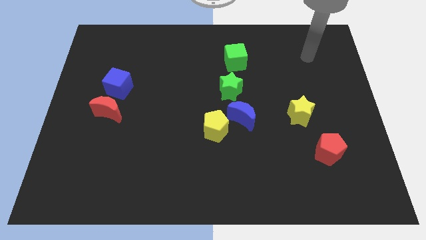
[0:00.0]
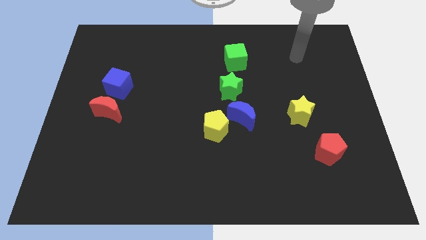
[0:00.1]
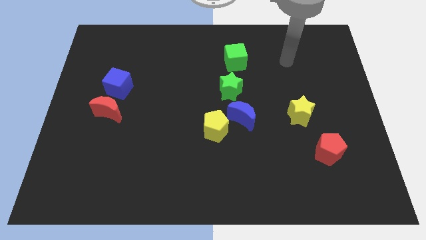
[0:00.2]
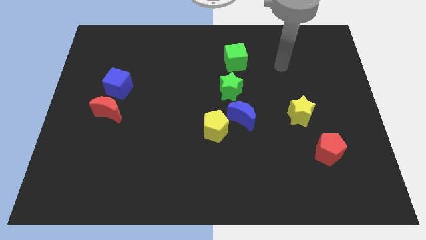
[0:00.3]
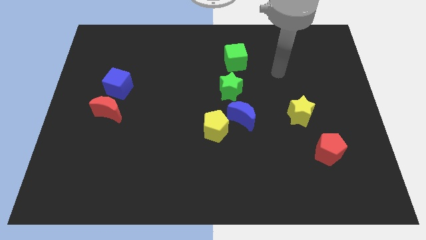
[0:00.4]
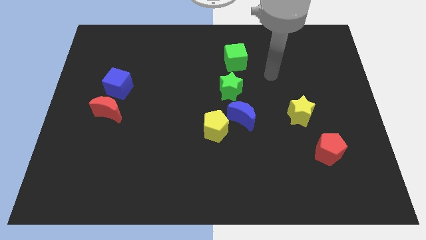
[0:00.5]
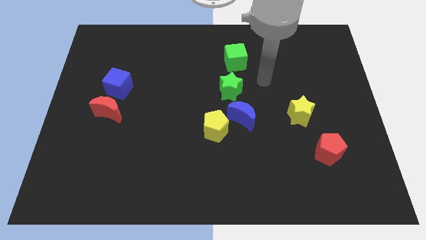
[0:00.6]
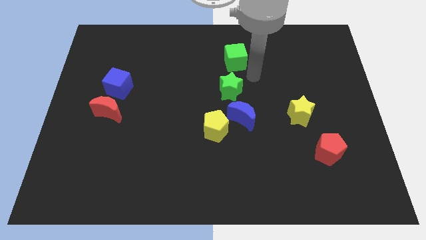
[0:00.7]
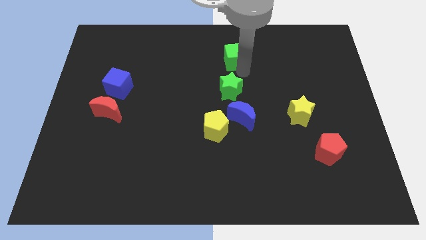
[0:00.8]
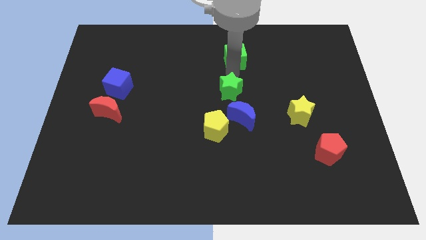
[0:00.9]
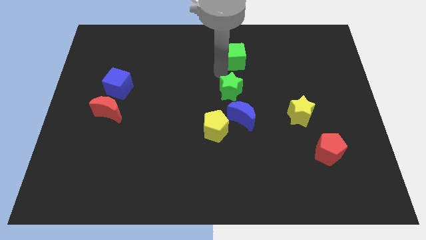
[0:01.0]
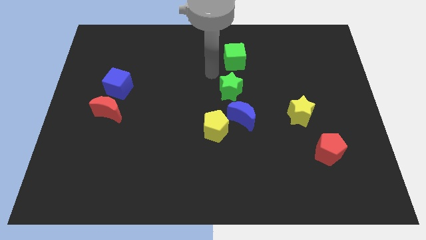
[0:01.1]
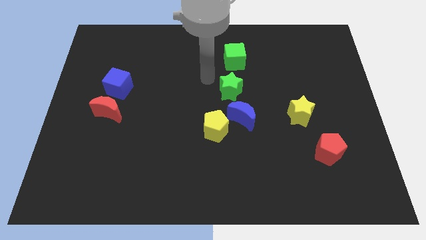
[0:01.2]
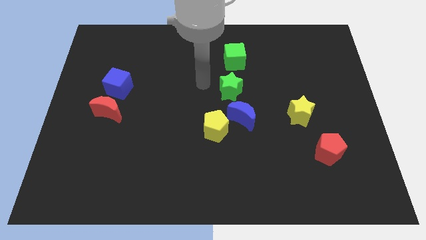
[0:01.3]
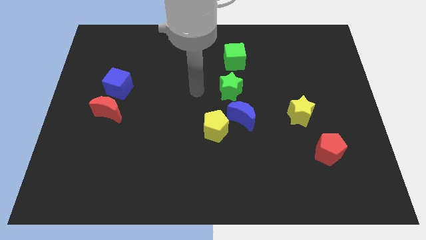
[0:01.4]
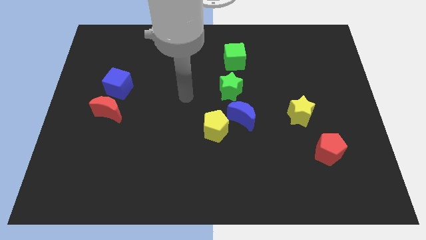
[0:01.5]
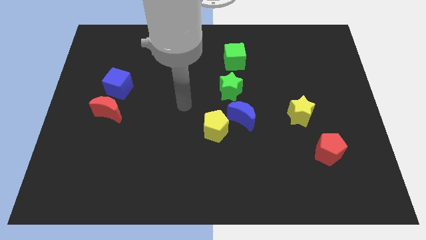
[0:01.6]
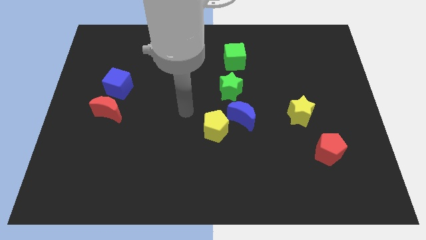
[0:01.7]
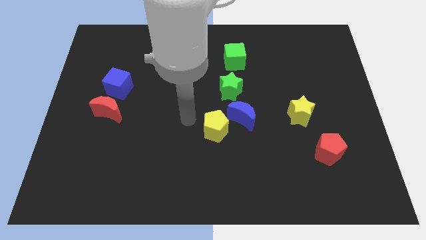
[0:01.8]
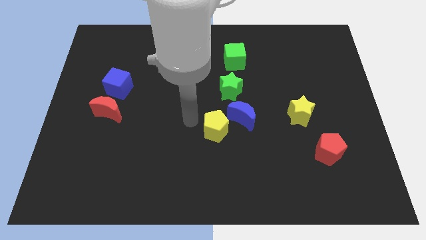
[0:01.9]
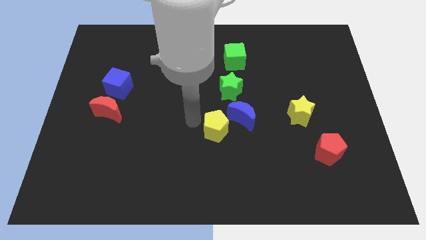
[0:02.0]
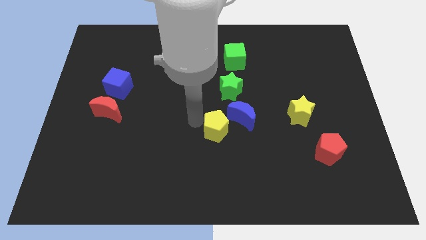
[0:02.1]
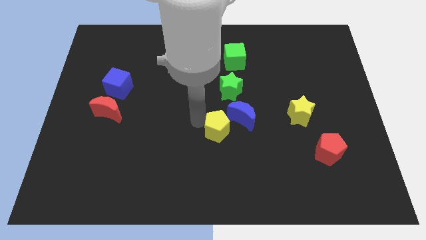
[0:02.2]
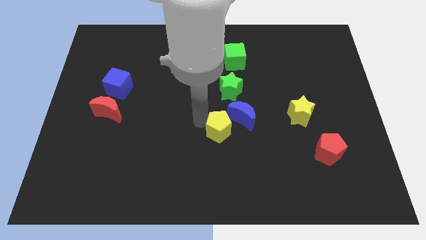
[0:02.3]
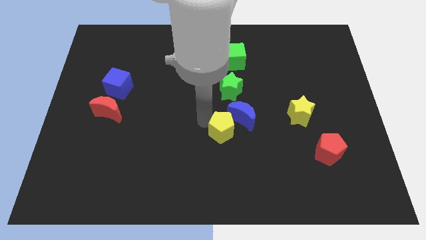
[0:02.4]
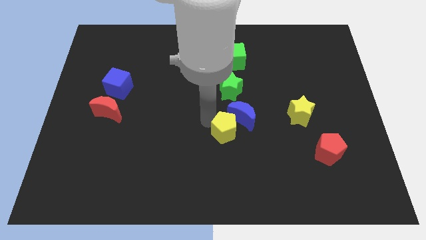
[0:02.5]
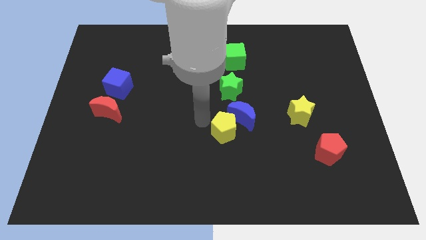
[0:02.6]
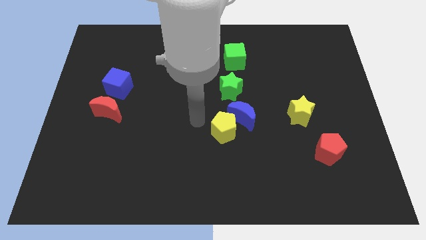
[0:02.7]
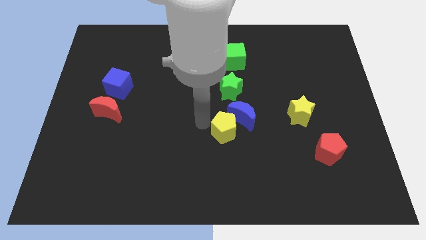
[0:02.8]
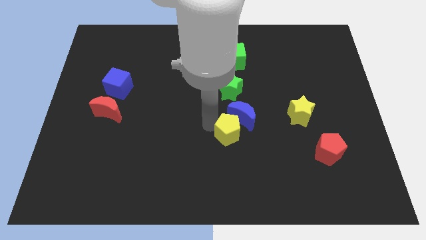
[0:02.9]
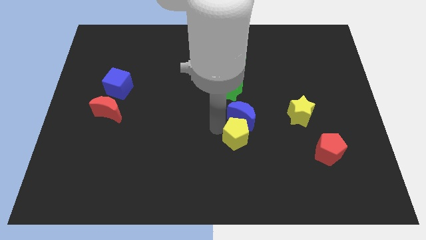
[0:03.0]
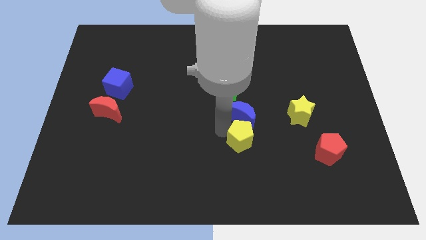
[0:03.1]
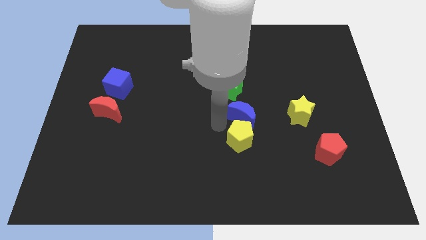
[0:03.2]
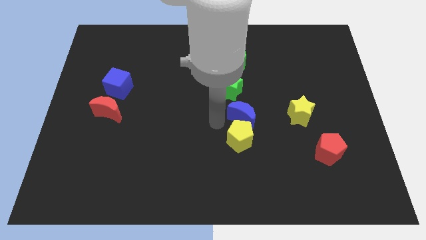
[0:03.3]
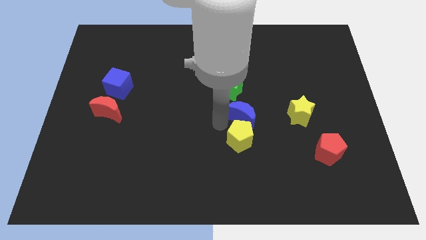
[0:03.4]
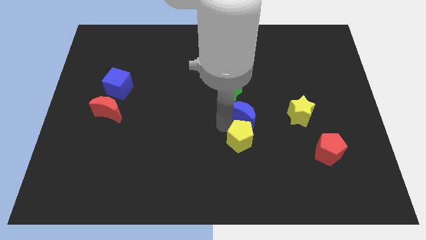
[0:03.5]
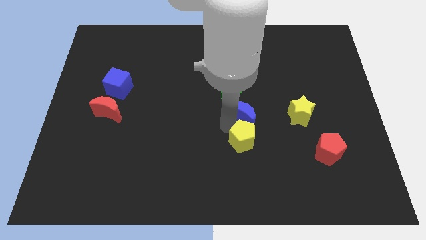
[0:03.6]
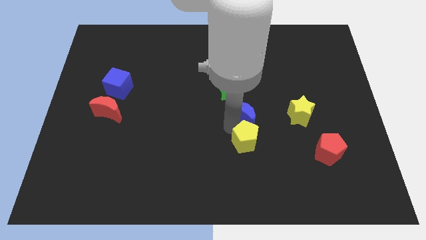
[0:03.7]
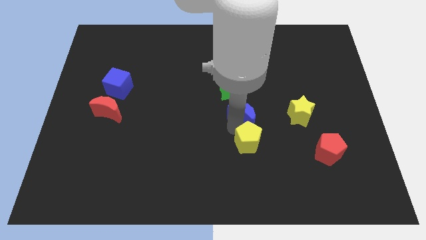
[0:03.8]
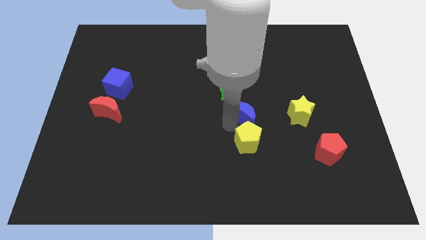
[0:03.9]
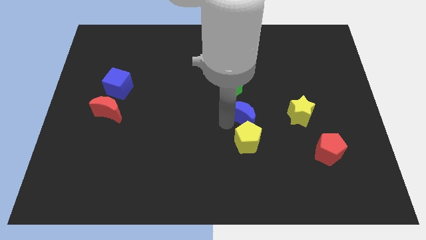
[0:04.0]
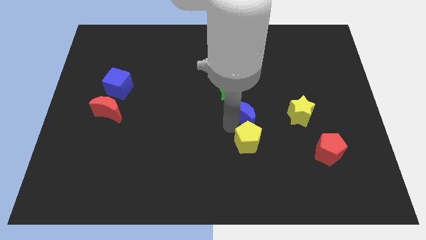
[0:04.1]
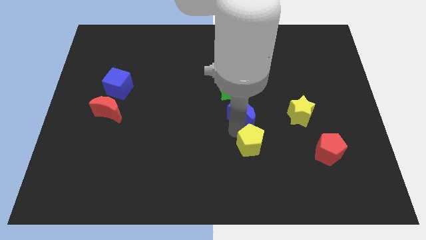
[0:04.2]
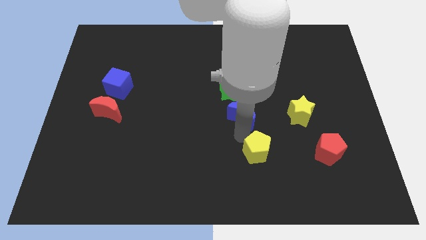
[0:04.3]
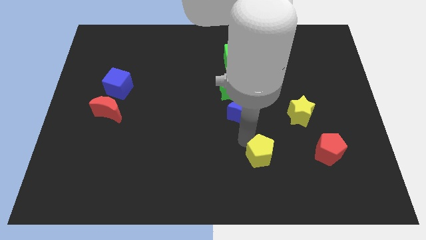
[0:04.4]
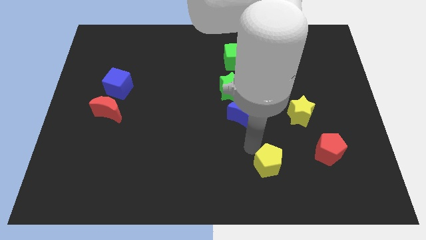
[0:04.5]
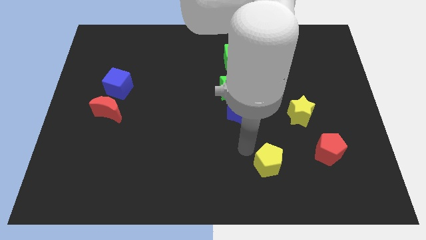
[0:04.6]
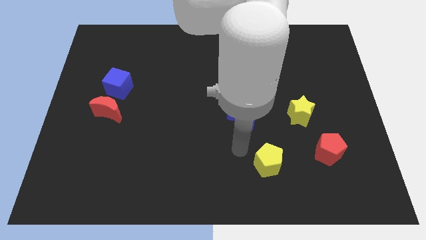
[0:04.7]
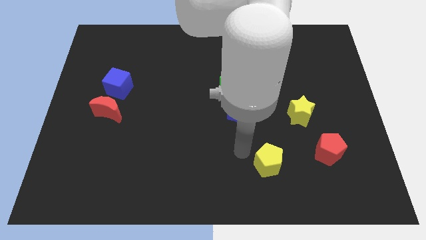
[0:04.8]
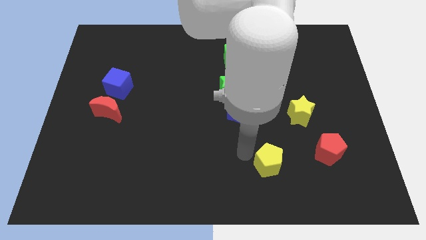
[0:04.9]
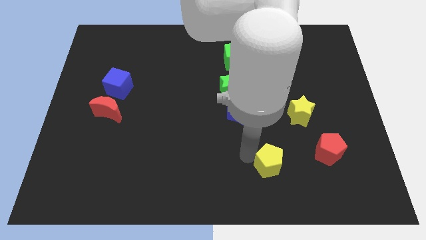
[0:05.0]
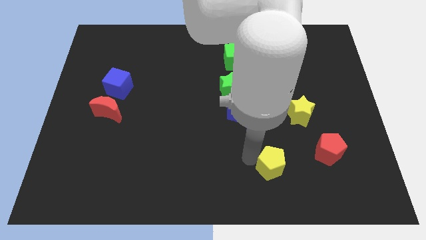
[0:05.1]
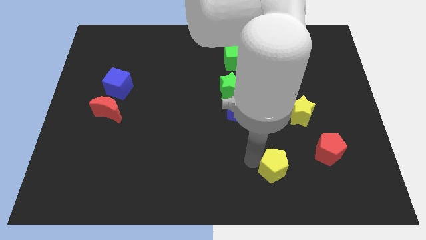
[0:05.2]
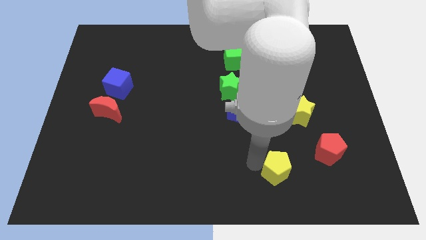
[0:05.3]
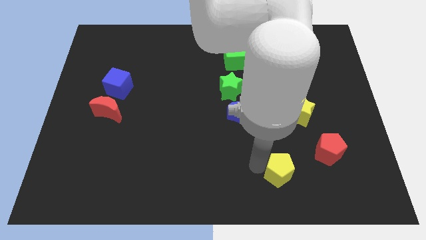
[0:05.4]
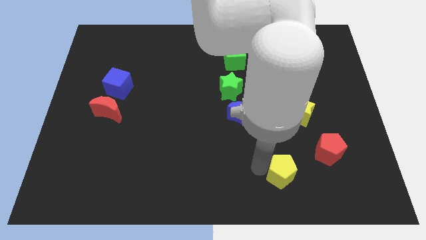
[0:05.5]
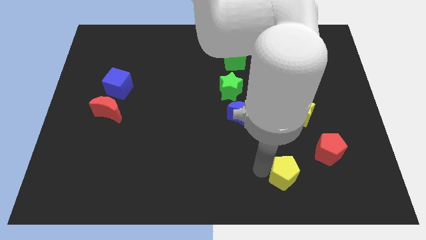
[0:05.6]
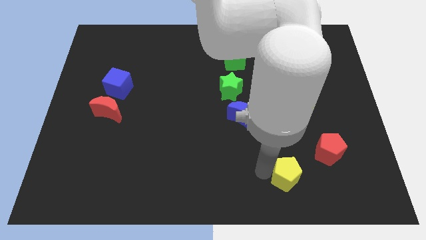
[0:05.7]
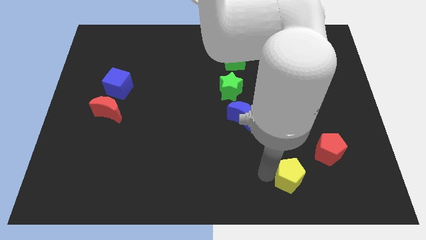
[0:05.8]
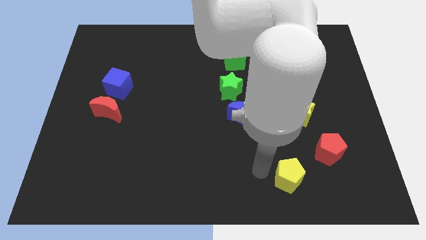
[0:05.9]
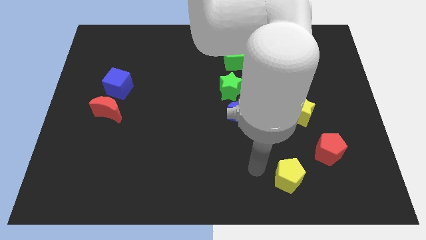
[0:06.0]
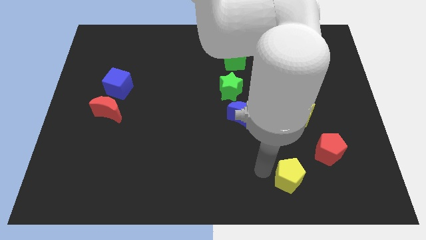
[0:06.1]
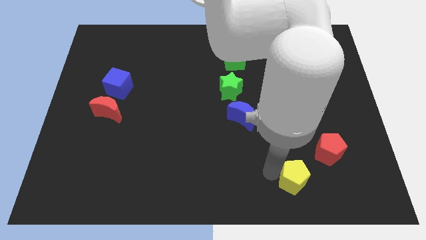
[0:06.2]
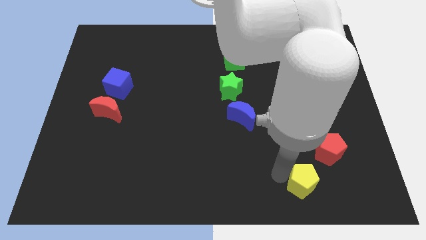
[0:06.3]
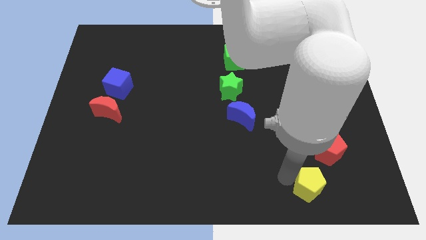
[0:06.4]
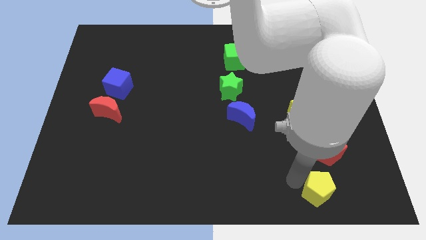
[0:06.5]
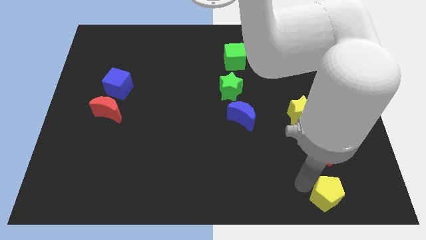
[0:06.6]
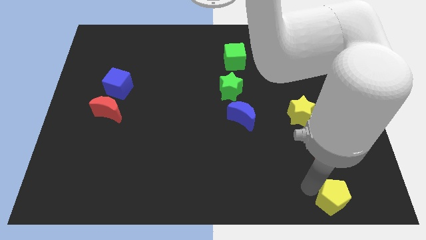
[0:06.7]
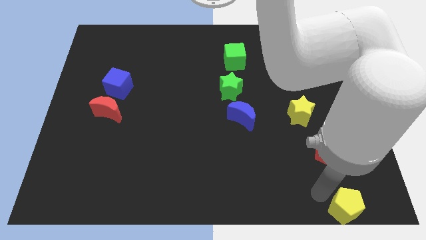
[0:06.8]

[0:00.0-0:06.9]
push the yellow pentagon to the lower right corner
